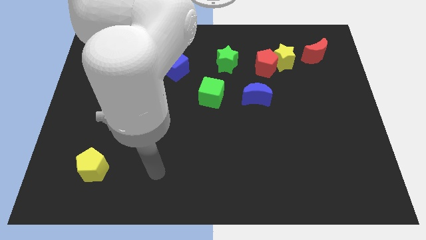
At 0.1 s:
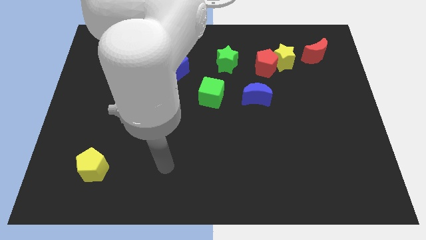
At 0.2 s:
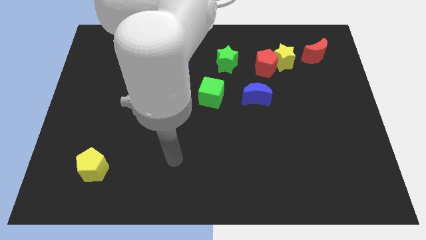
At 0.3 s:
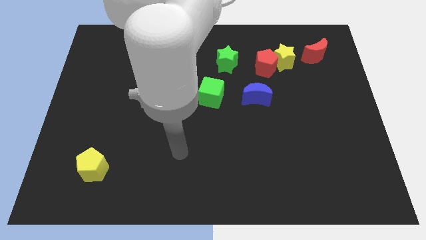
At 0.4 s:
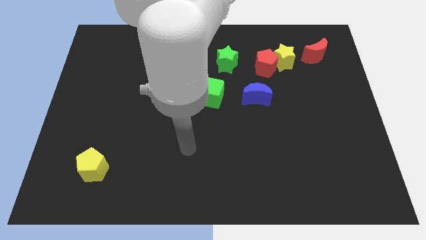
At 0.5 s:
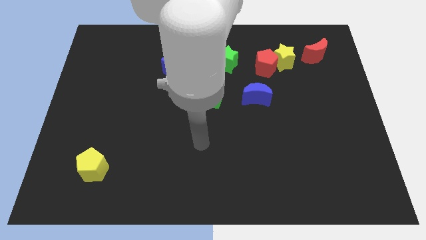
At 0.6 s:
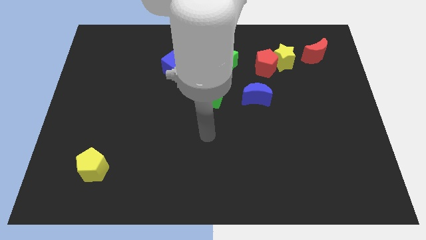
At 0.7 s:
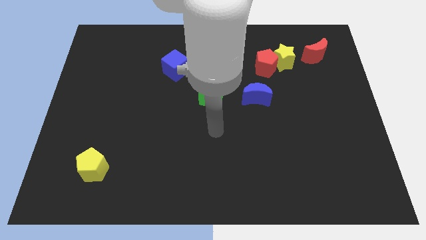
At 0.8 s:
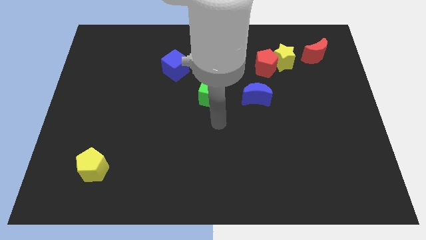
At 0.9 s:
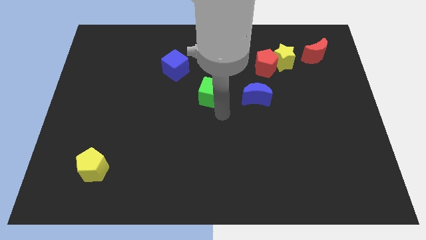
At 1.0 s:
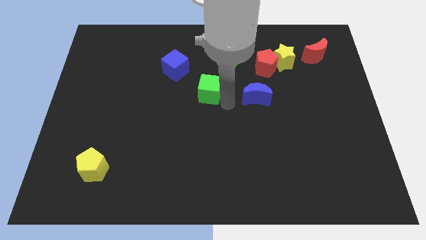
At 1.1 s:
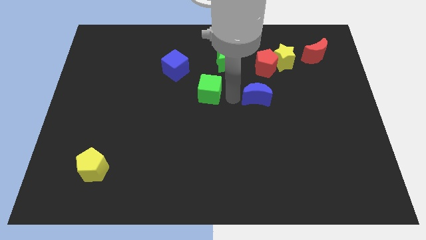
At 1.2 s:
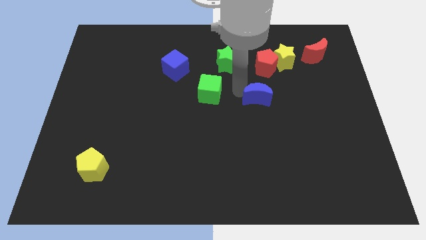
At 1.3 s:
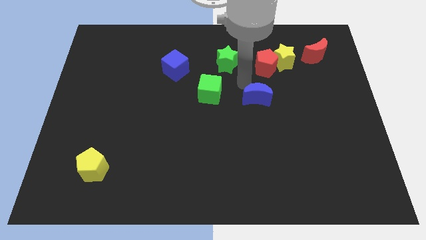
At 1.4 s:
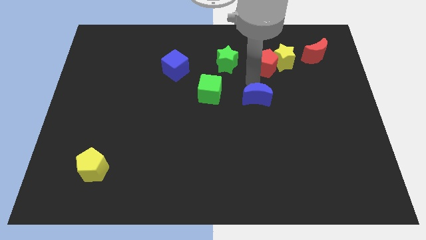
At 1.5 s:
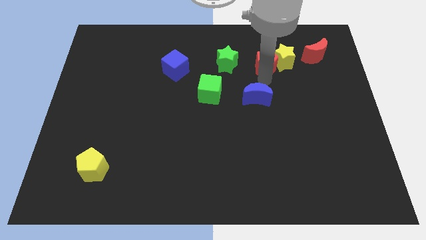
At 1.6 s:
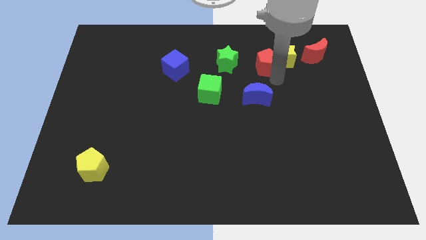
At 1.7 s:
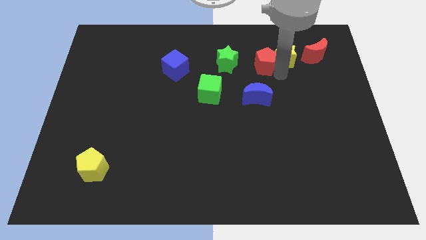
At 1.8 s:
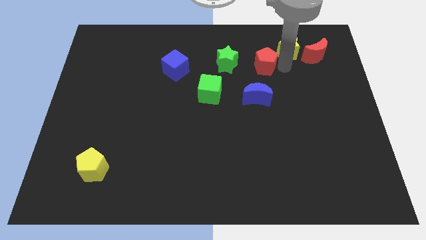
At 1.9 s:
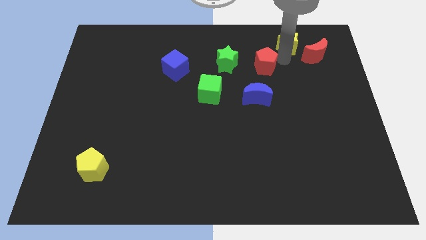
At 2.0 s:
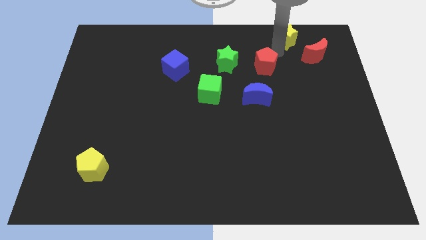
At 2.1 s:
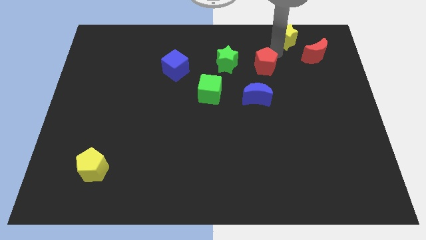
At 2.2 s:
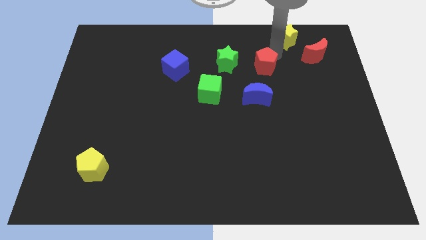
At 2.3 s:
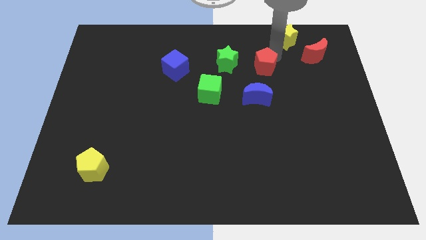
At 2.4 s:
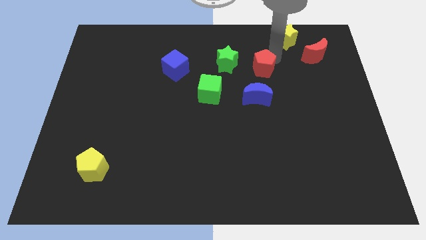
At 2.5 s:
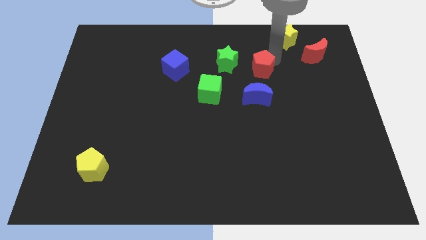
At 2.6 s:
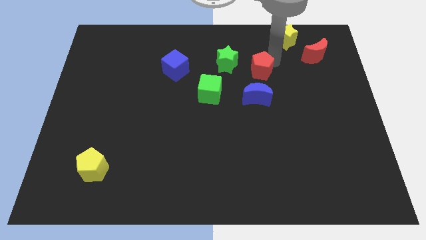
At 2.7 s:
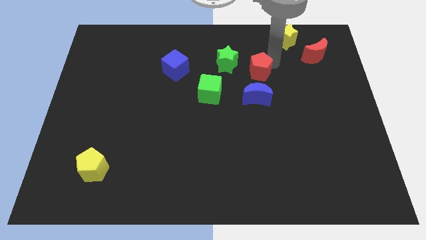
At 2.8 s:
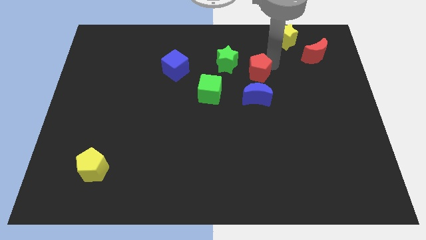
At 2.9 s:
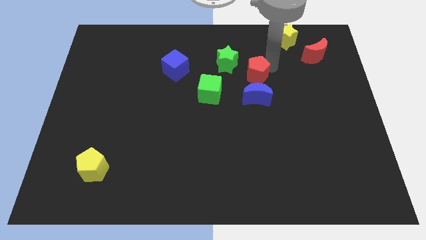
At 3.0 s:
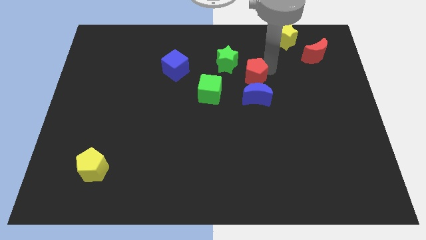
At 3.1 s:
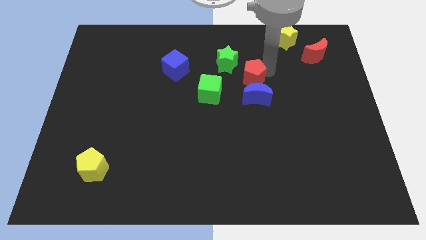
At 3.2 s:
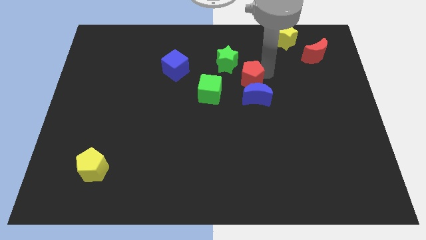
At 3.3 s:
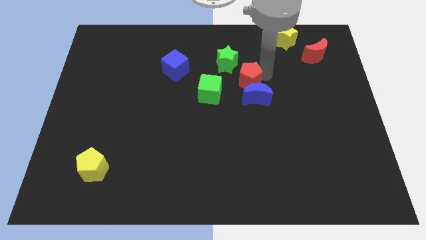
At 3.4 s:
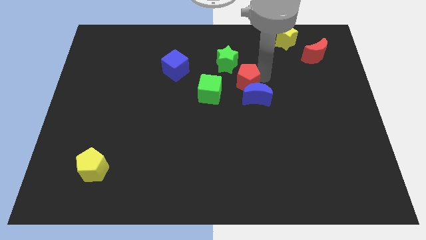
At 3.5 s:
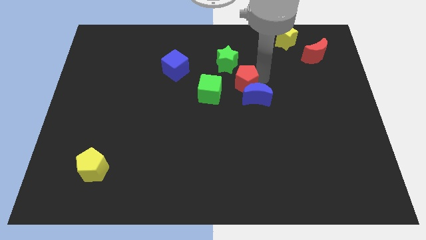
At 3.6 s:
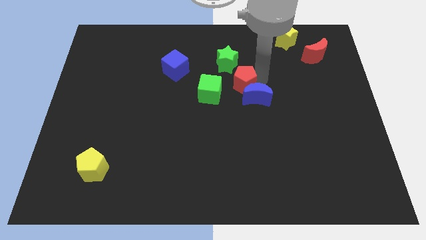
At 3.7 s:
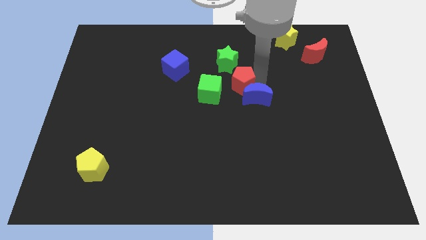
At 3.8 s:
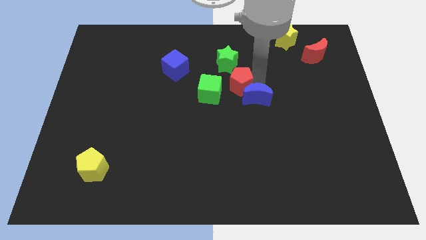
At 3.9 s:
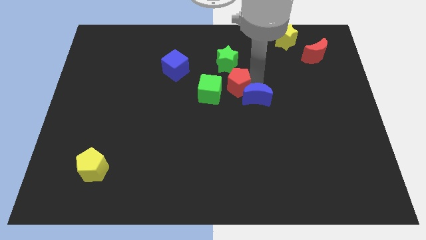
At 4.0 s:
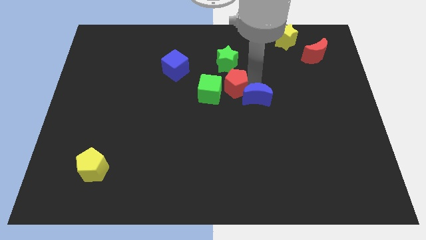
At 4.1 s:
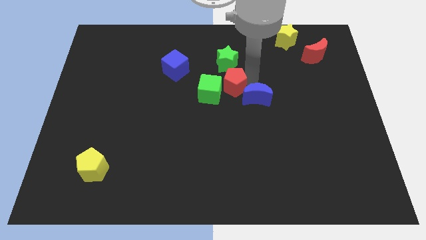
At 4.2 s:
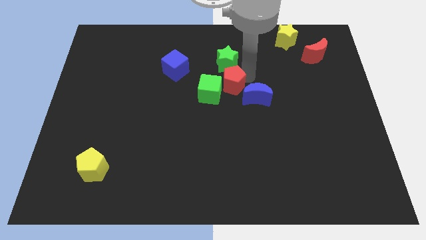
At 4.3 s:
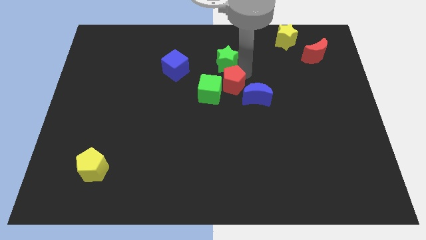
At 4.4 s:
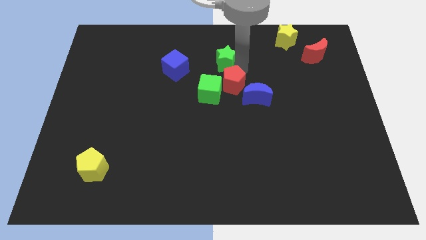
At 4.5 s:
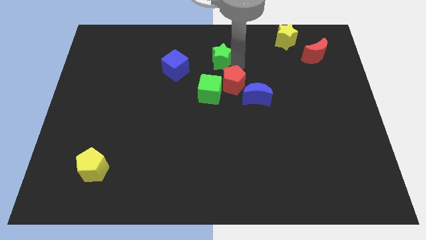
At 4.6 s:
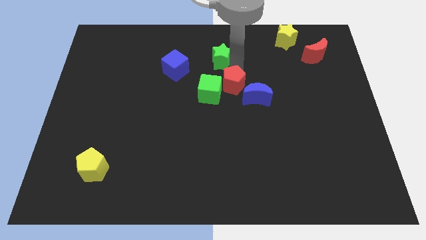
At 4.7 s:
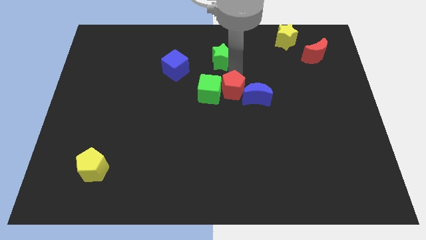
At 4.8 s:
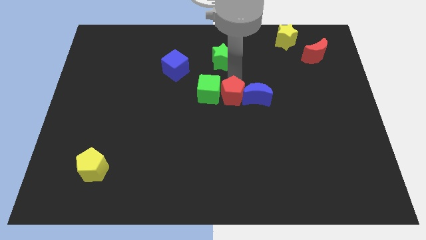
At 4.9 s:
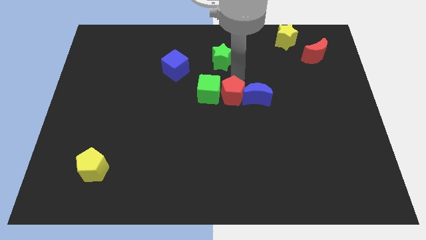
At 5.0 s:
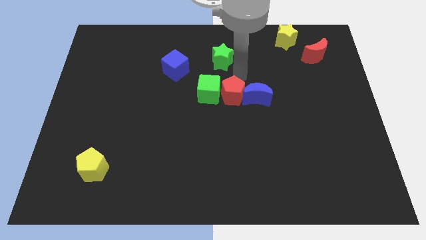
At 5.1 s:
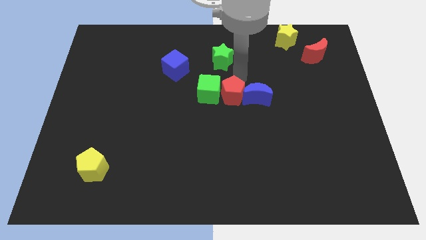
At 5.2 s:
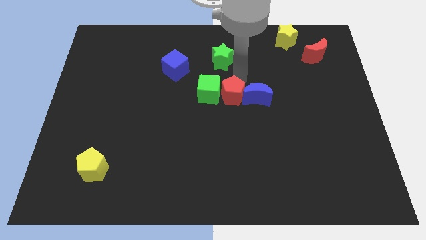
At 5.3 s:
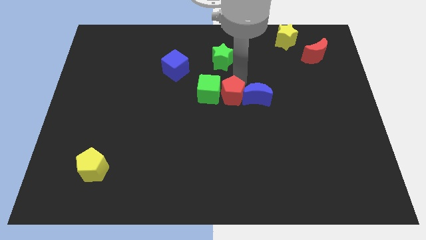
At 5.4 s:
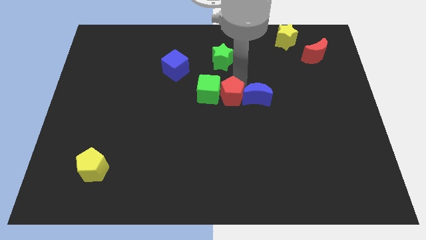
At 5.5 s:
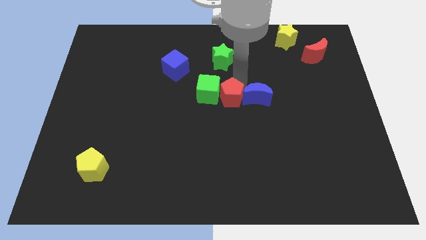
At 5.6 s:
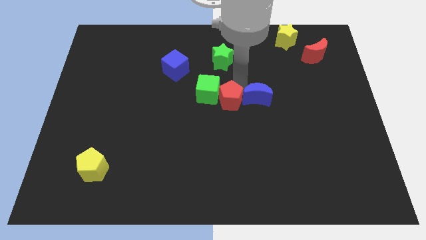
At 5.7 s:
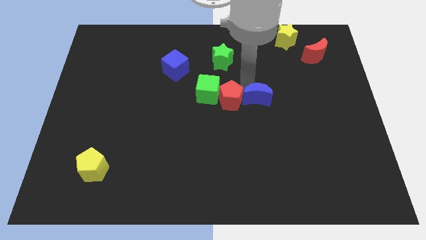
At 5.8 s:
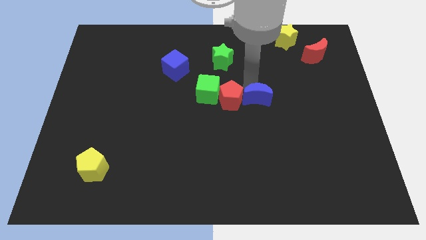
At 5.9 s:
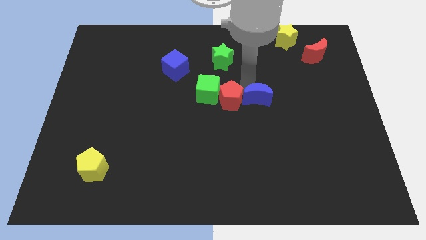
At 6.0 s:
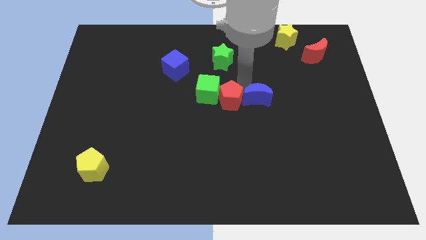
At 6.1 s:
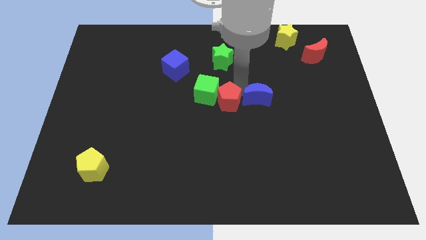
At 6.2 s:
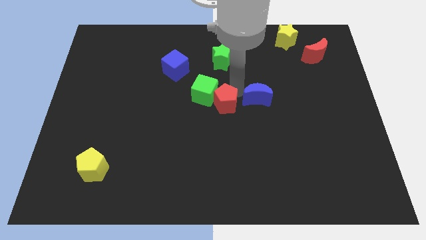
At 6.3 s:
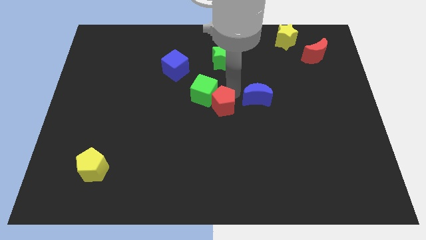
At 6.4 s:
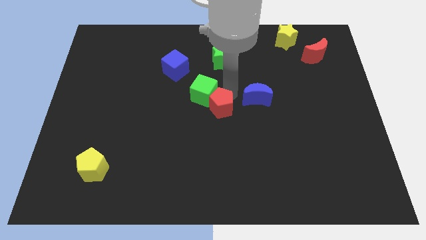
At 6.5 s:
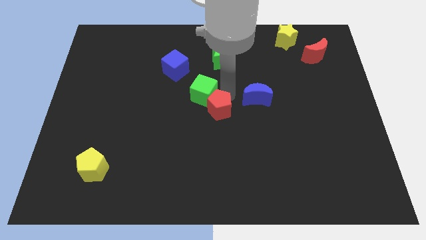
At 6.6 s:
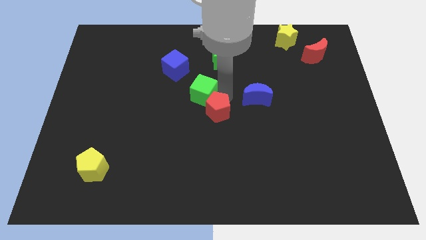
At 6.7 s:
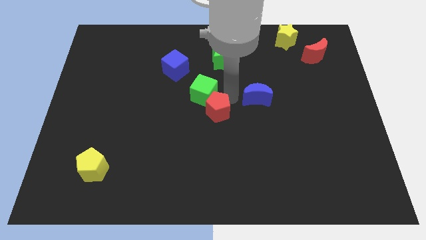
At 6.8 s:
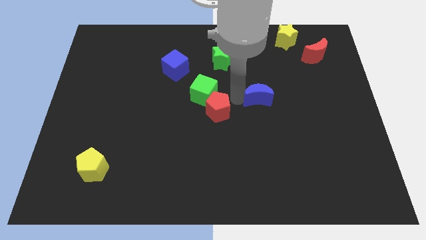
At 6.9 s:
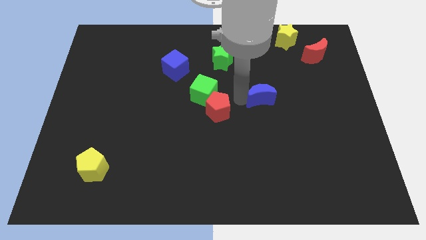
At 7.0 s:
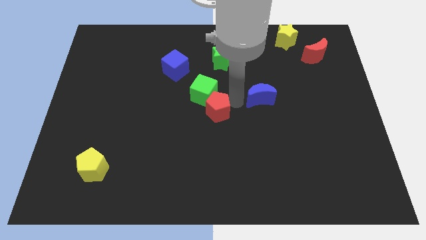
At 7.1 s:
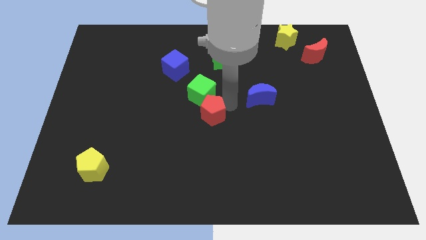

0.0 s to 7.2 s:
move the red pentagon down and to the left diagonally

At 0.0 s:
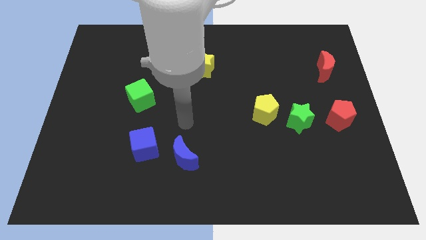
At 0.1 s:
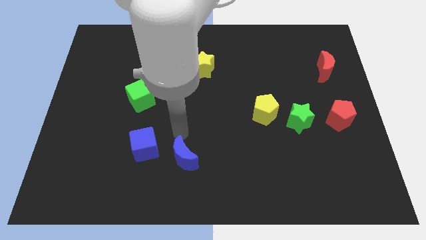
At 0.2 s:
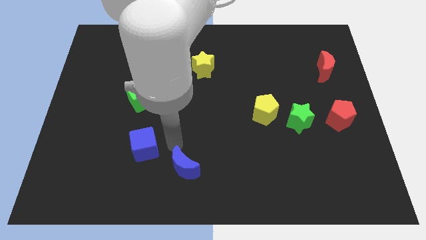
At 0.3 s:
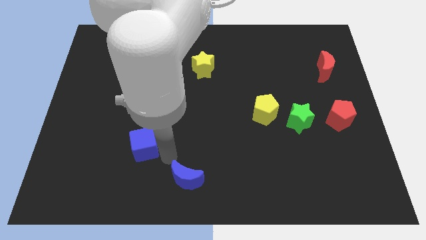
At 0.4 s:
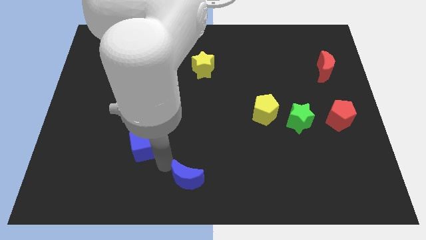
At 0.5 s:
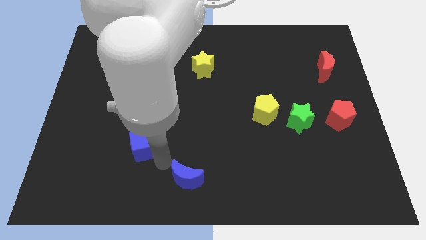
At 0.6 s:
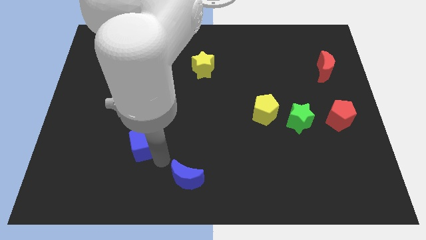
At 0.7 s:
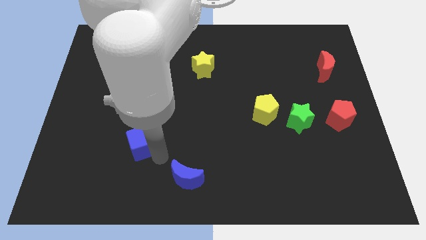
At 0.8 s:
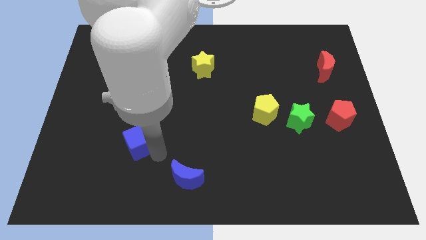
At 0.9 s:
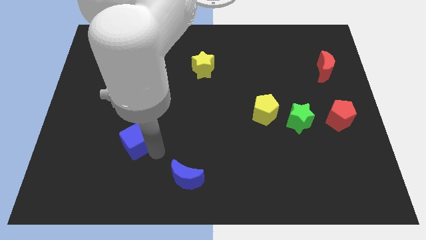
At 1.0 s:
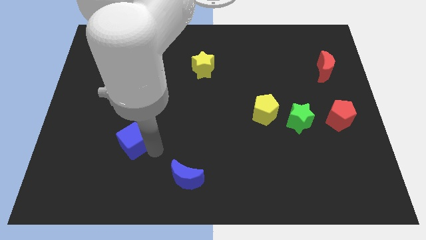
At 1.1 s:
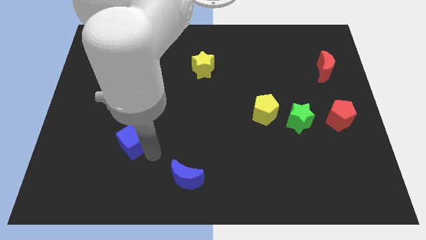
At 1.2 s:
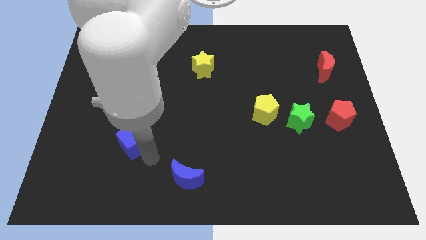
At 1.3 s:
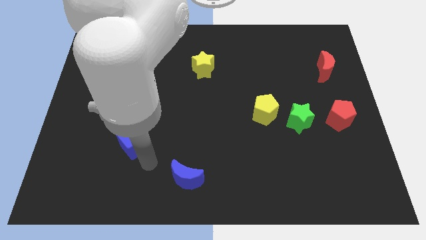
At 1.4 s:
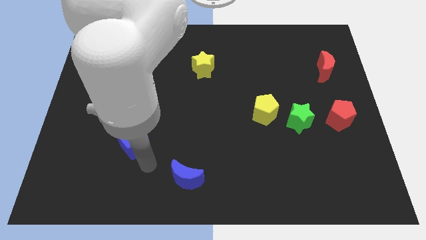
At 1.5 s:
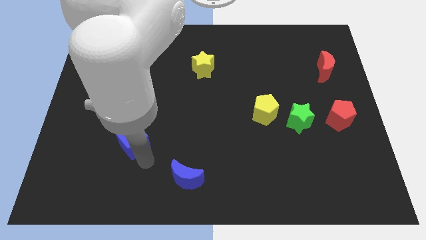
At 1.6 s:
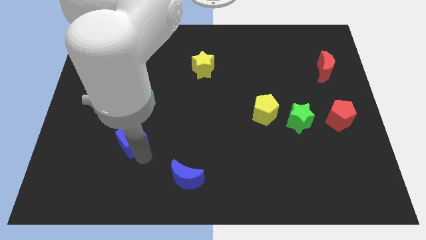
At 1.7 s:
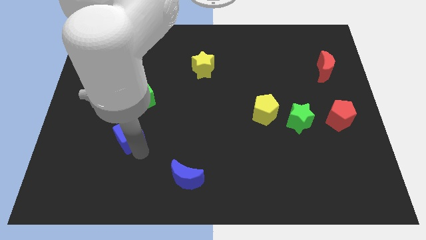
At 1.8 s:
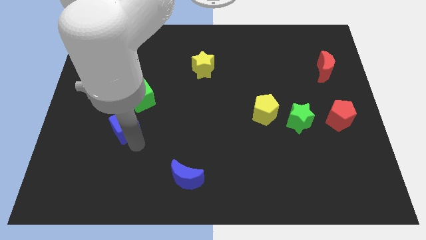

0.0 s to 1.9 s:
push the blue cube upwards and left a little
